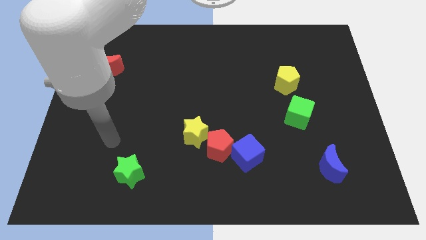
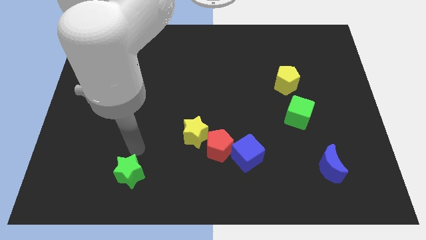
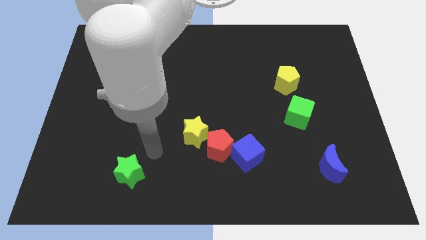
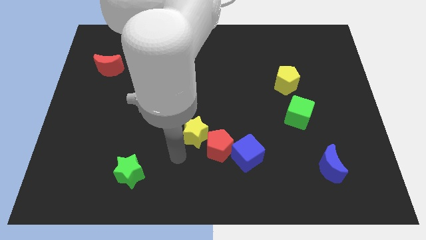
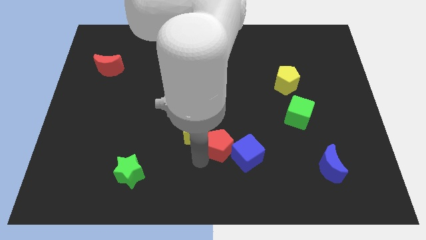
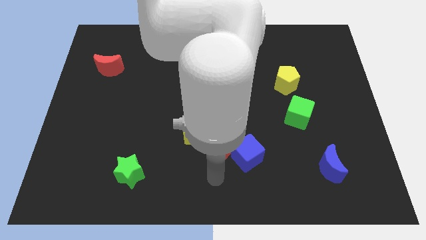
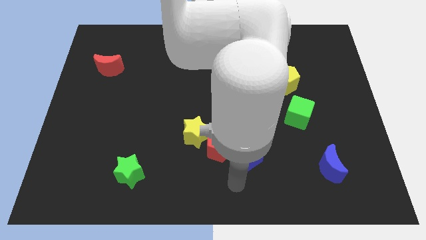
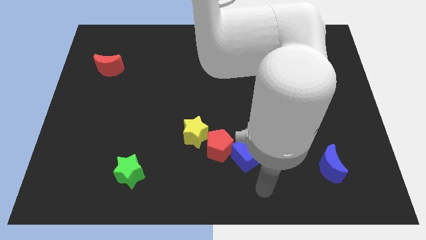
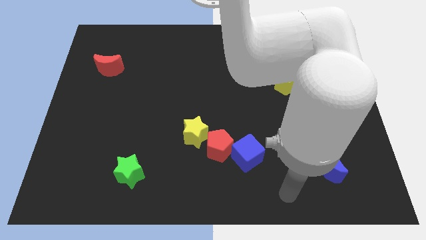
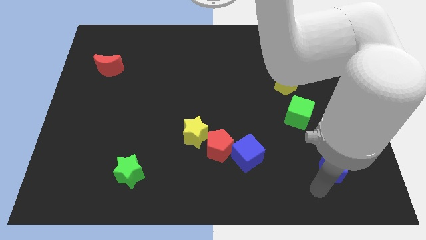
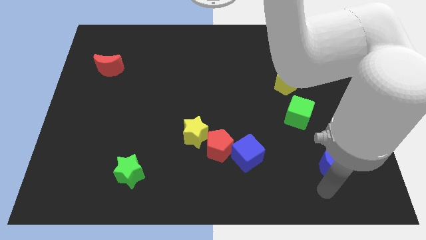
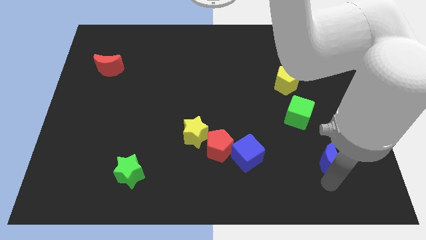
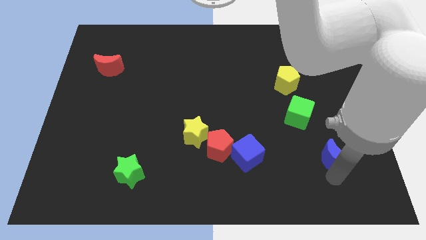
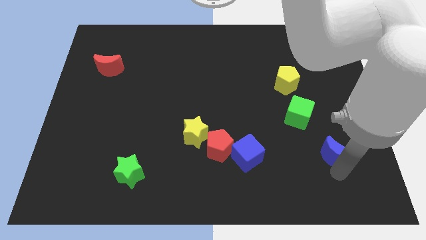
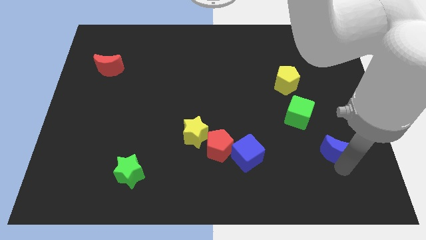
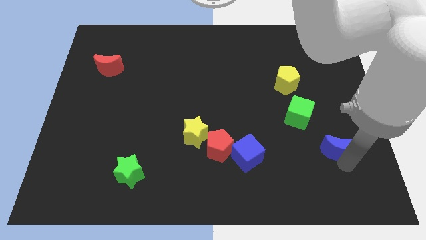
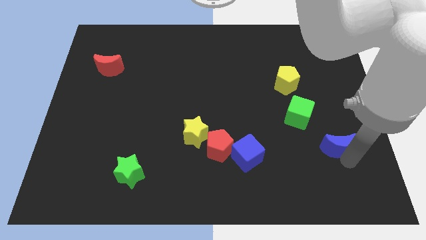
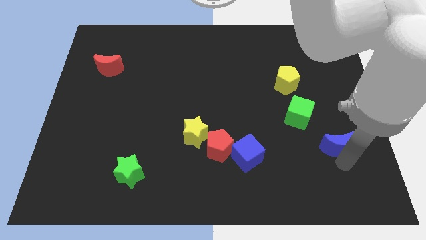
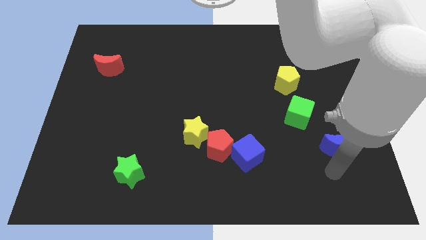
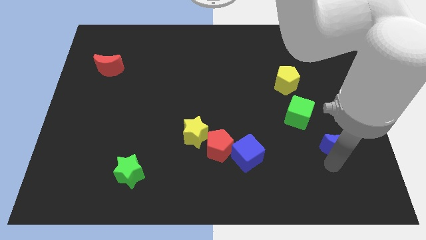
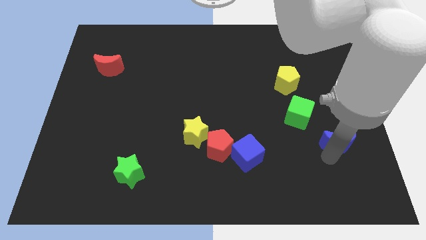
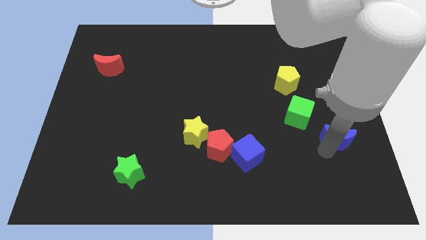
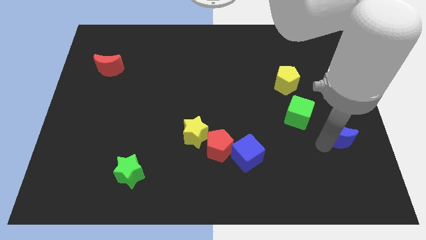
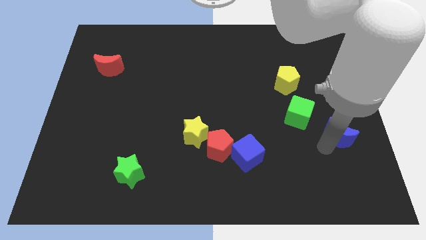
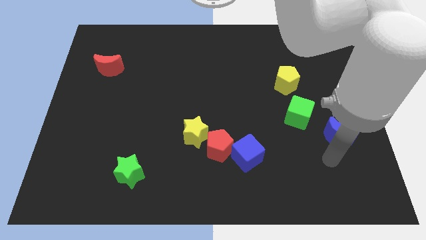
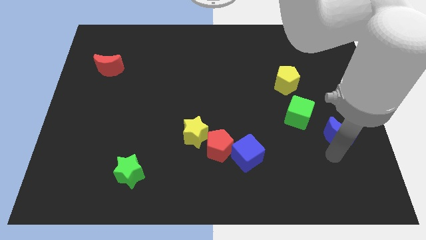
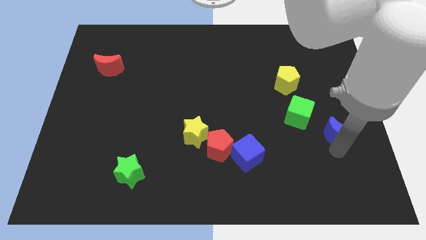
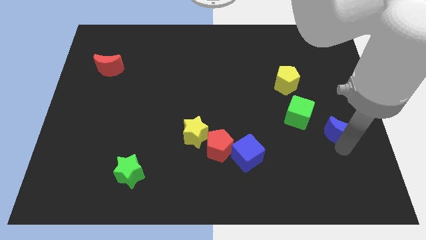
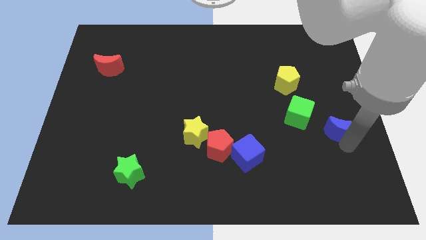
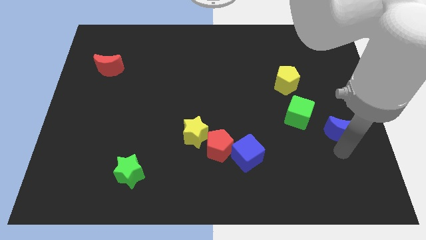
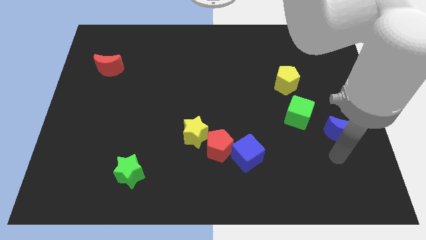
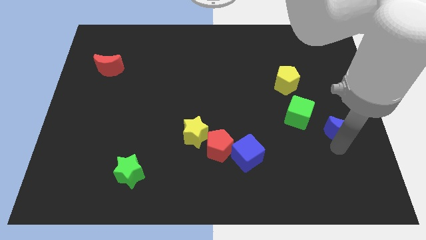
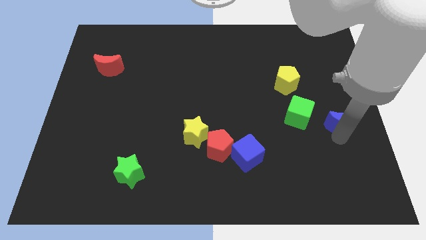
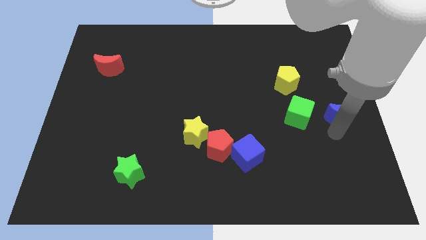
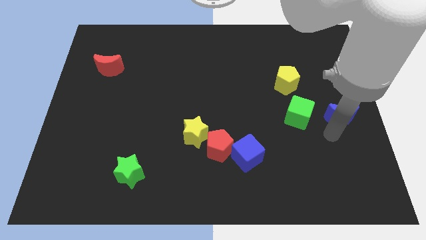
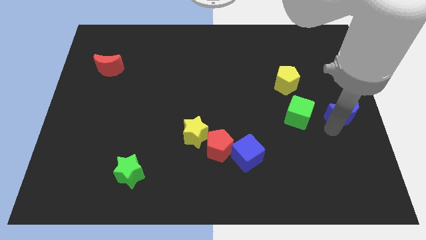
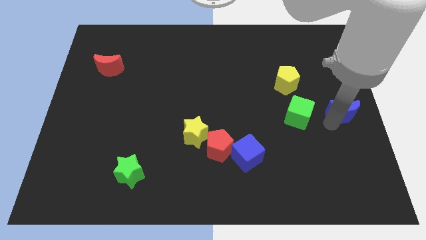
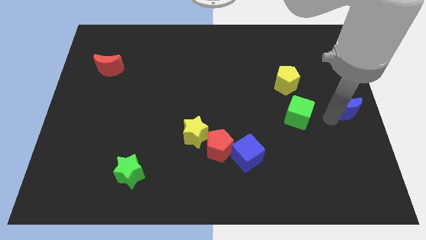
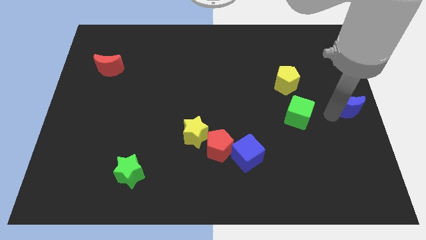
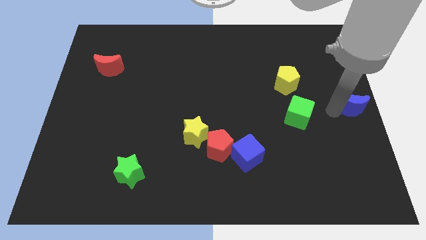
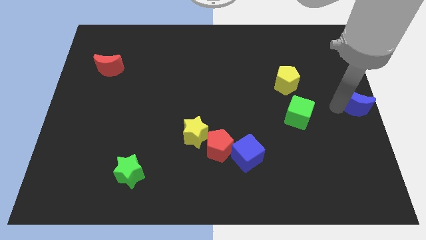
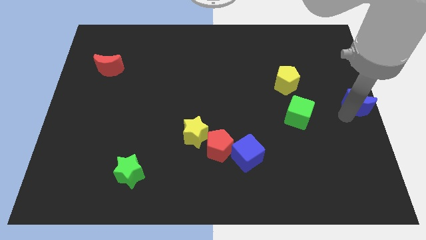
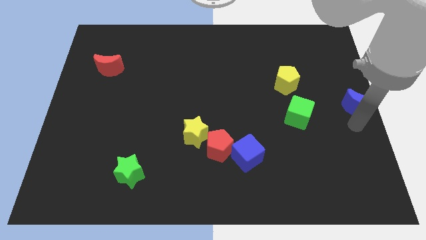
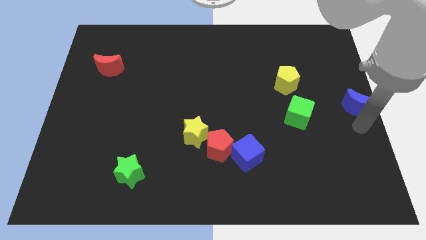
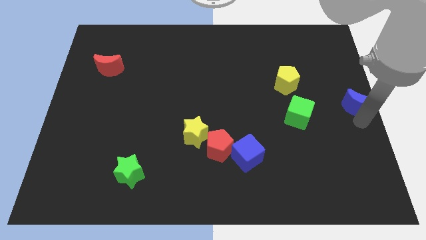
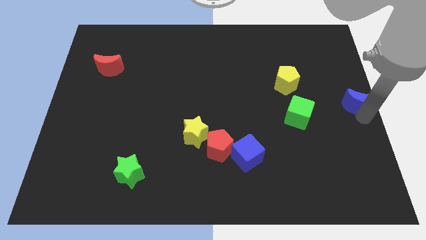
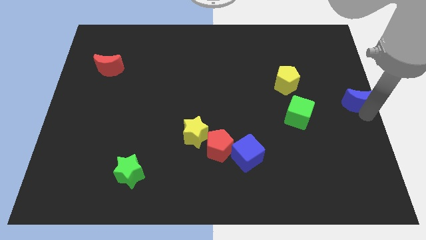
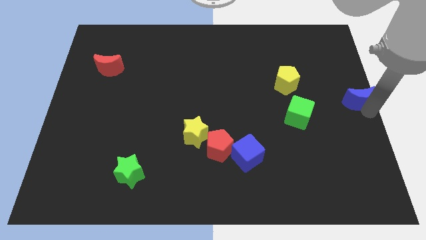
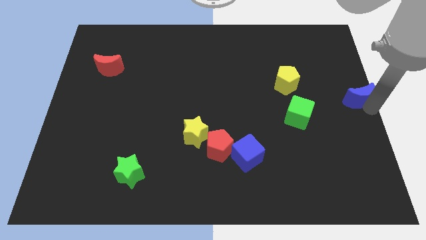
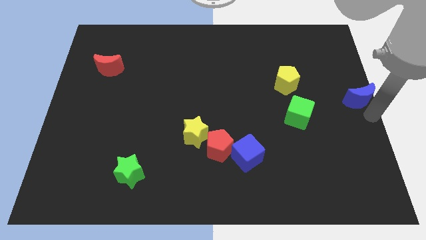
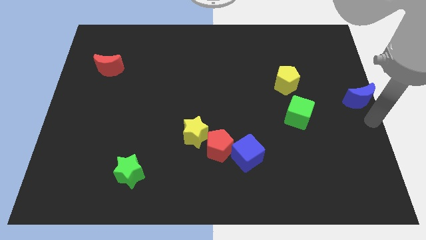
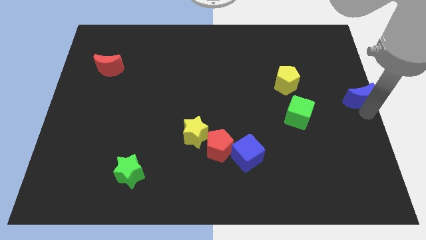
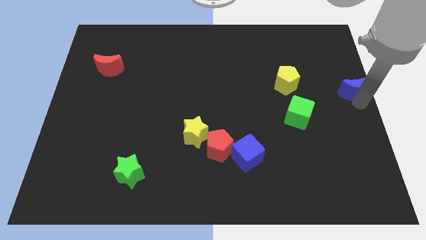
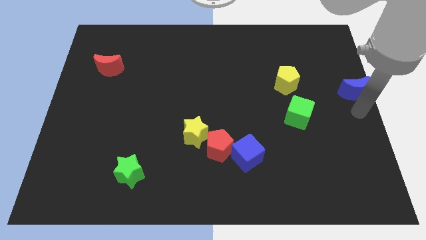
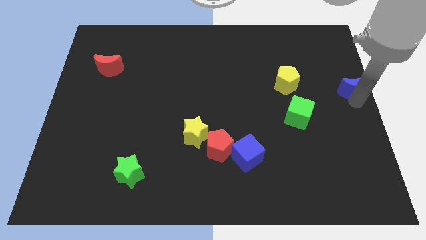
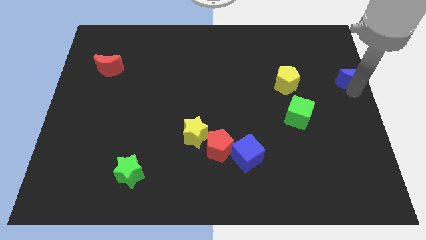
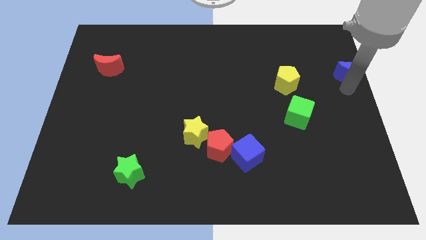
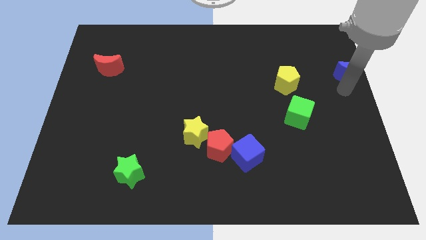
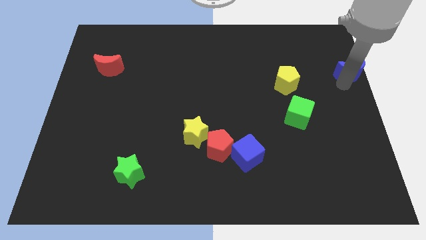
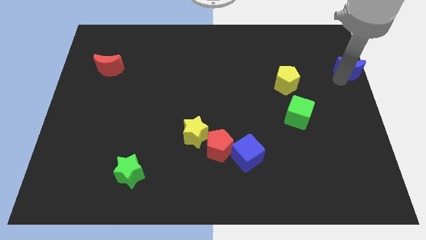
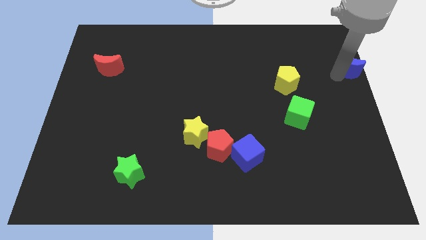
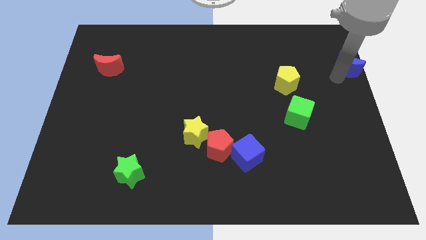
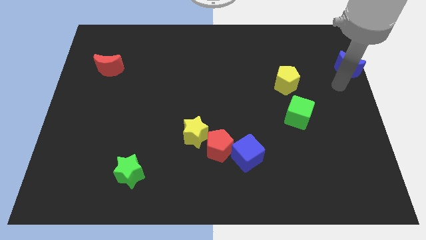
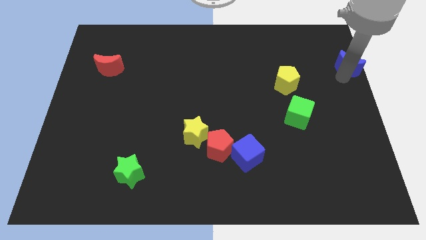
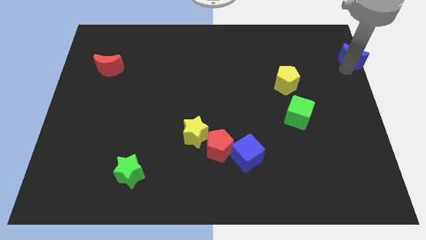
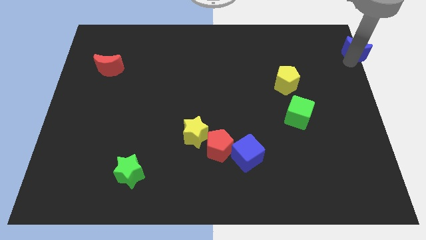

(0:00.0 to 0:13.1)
put the blue moon to the top right corner
